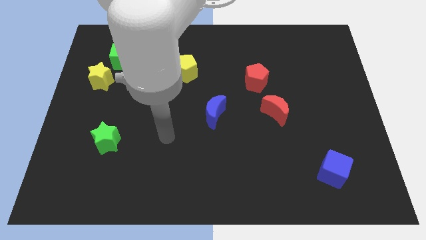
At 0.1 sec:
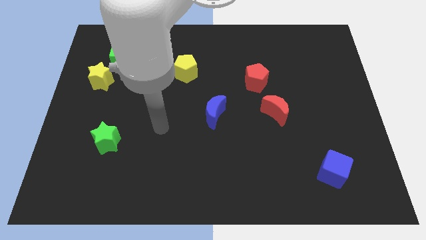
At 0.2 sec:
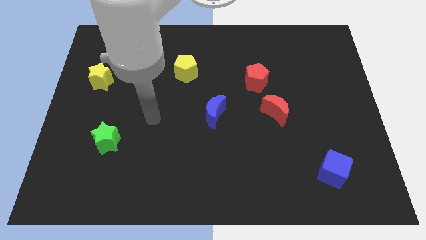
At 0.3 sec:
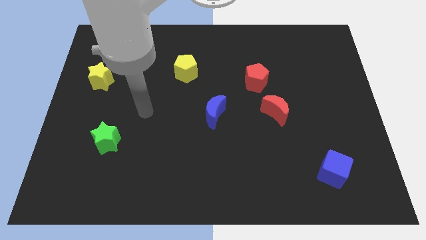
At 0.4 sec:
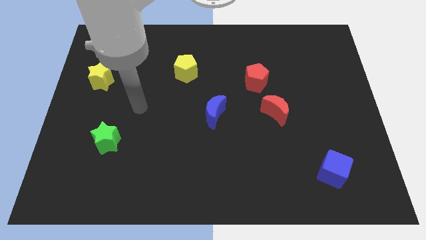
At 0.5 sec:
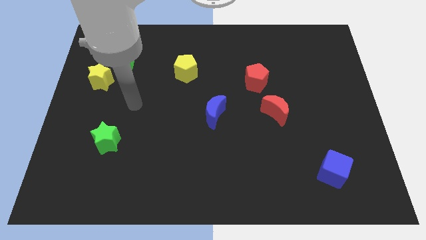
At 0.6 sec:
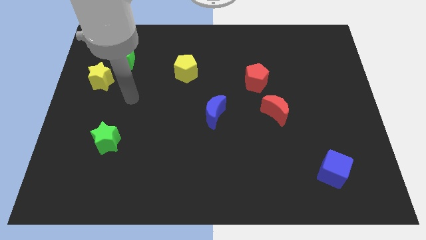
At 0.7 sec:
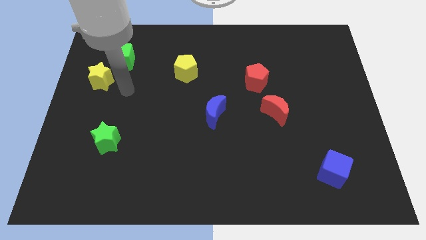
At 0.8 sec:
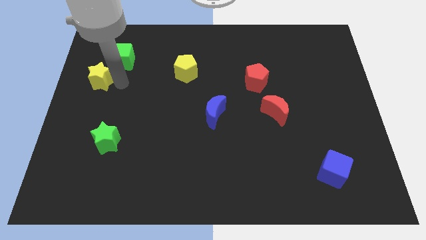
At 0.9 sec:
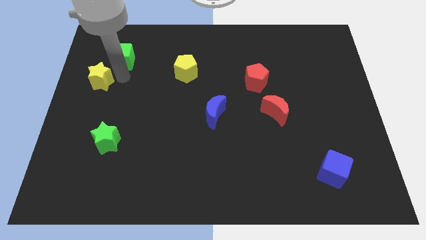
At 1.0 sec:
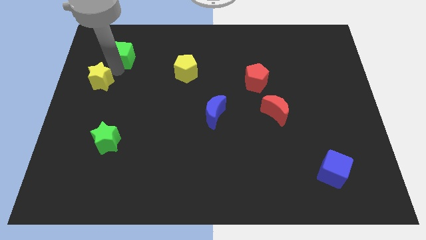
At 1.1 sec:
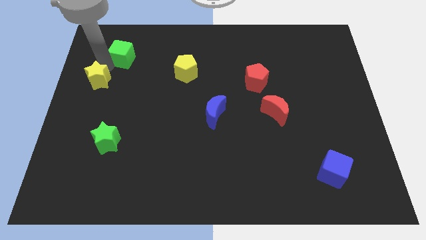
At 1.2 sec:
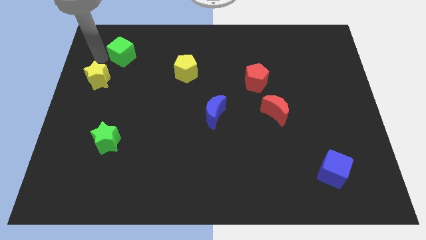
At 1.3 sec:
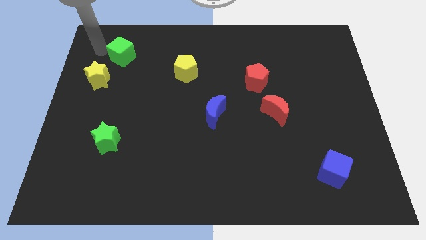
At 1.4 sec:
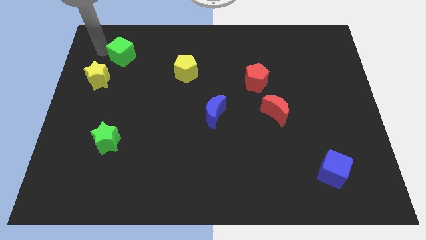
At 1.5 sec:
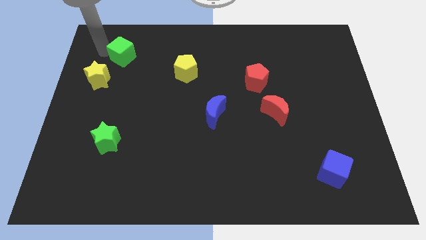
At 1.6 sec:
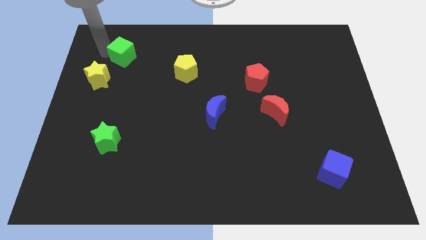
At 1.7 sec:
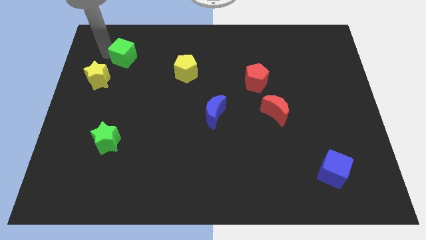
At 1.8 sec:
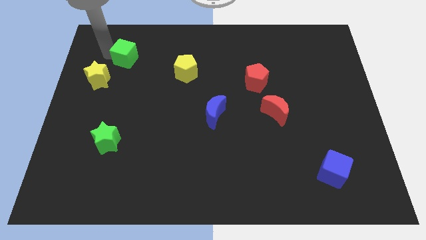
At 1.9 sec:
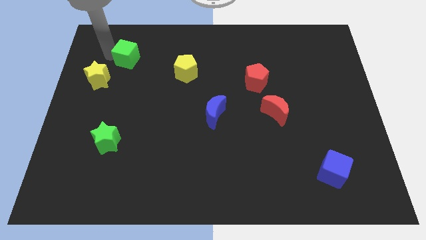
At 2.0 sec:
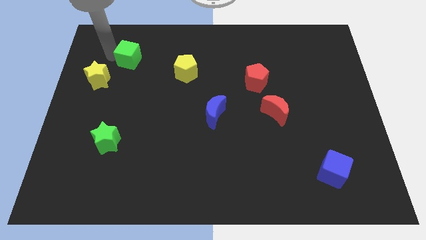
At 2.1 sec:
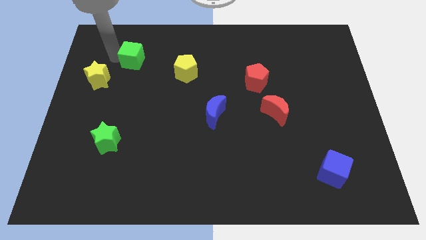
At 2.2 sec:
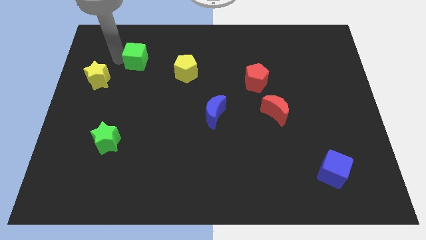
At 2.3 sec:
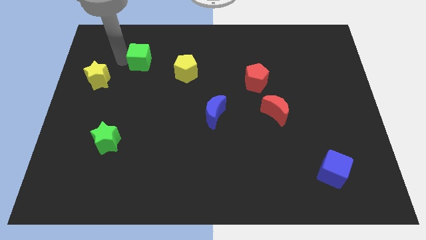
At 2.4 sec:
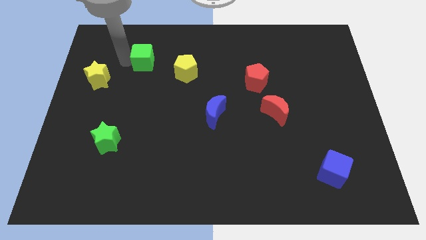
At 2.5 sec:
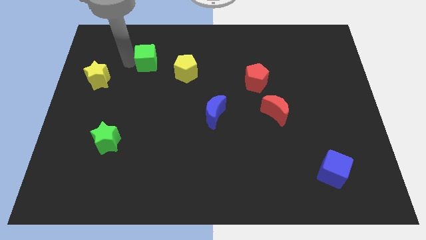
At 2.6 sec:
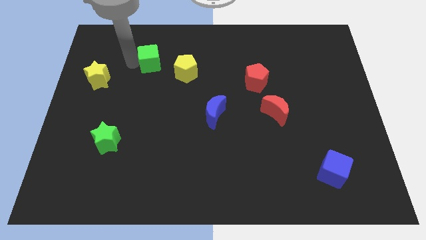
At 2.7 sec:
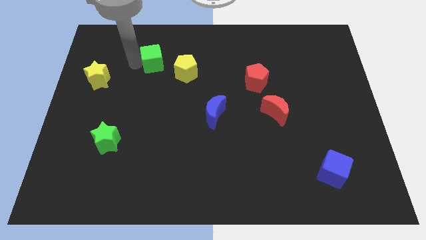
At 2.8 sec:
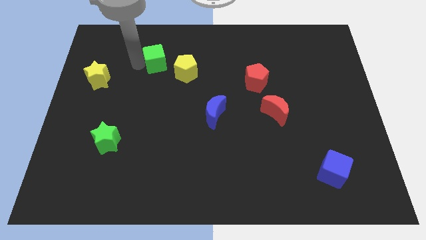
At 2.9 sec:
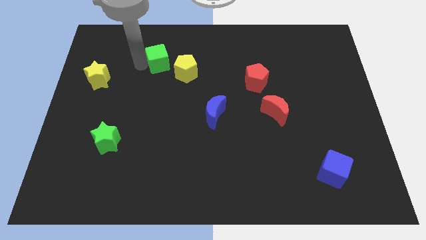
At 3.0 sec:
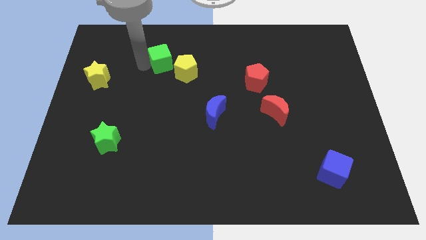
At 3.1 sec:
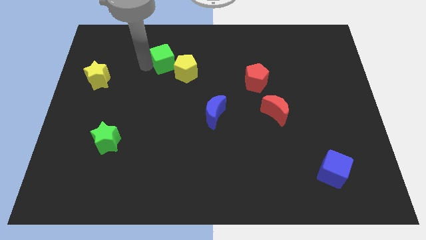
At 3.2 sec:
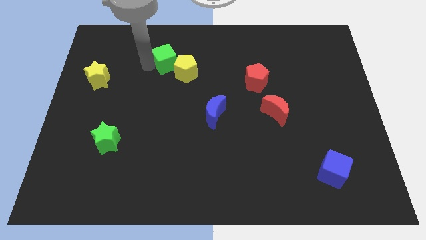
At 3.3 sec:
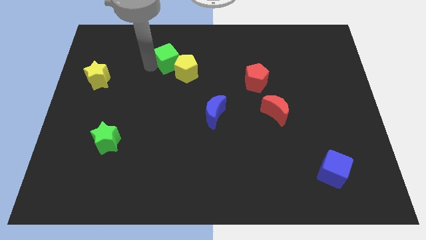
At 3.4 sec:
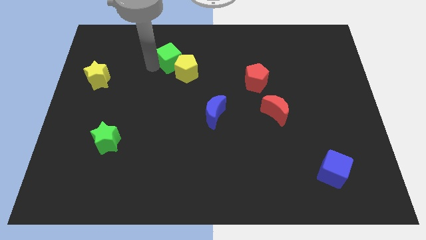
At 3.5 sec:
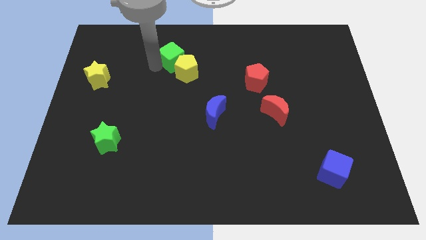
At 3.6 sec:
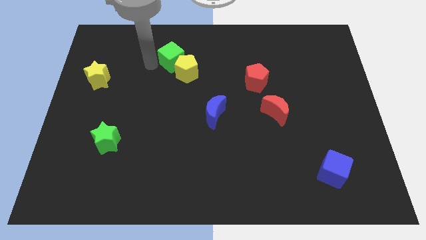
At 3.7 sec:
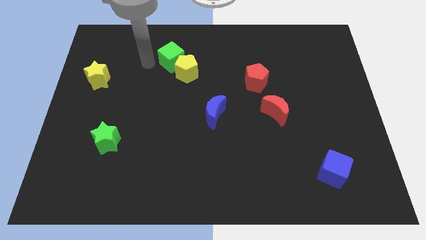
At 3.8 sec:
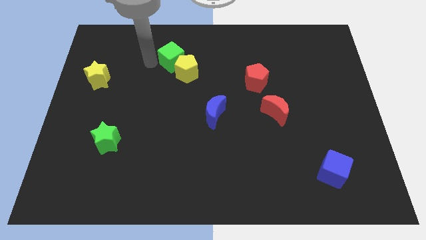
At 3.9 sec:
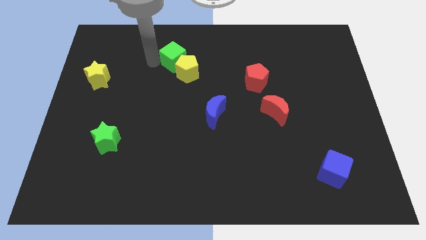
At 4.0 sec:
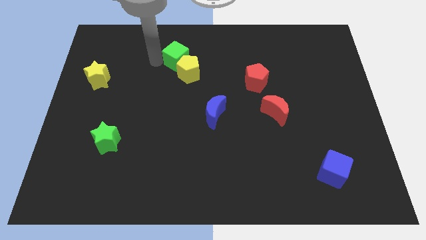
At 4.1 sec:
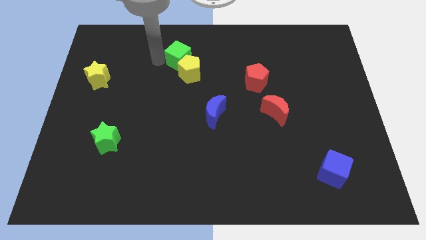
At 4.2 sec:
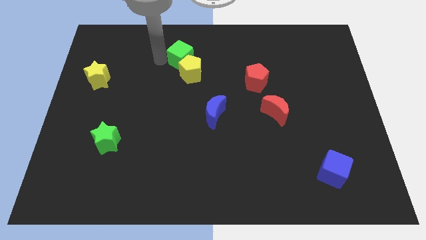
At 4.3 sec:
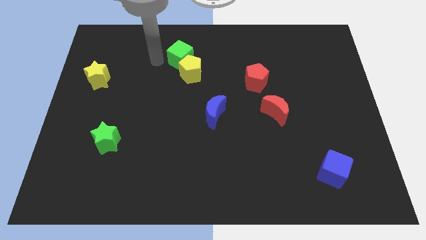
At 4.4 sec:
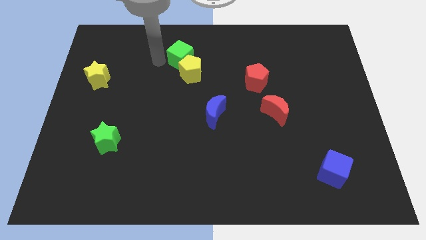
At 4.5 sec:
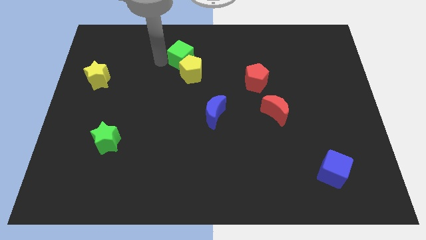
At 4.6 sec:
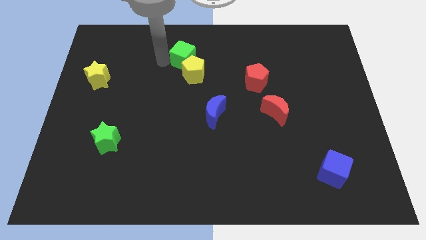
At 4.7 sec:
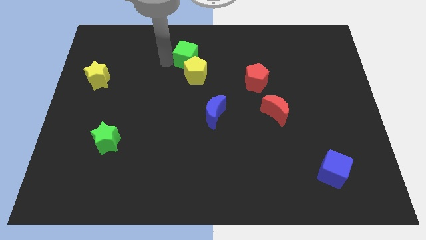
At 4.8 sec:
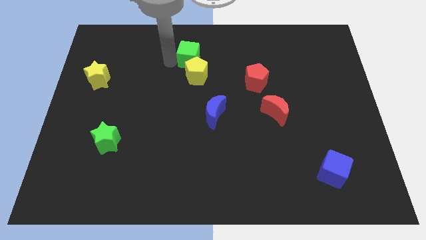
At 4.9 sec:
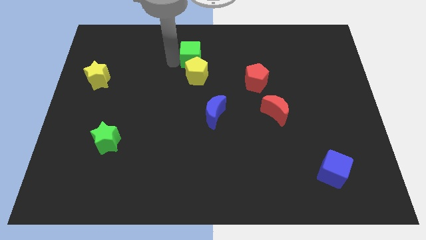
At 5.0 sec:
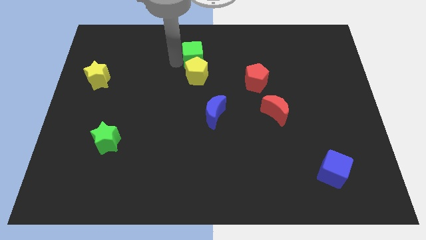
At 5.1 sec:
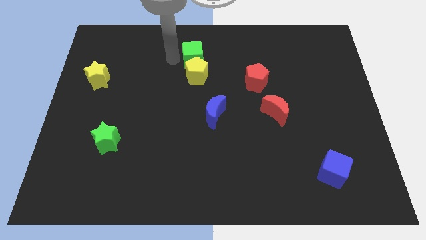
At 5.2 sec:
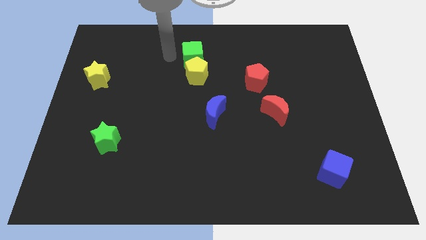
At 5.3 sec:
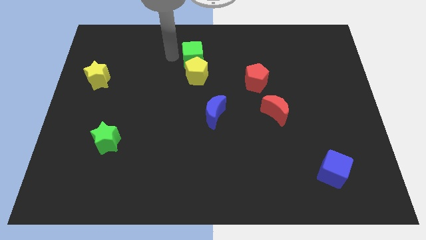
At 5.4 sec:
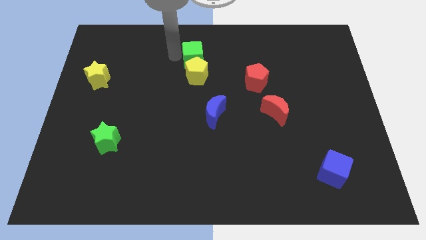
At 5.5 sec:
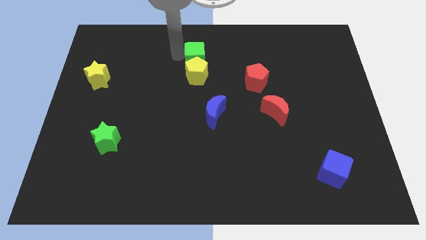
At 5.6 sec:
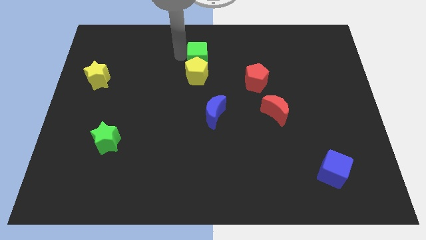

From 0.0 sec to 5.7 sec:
slide the green cube right

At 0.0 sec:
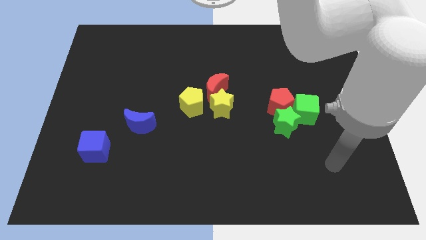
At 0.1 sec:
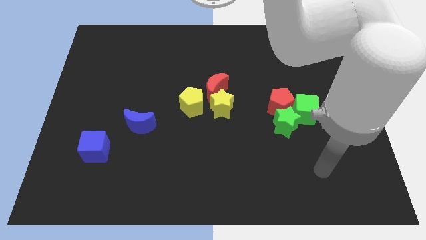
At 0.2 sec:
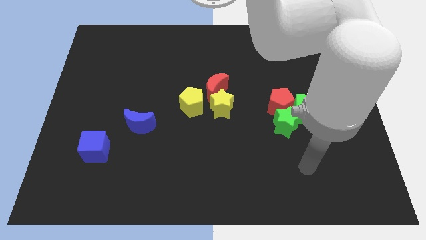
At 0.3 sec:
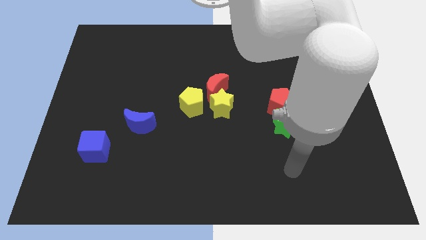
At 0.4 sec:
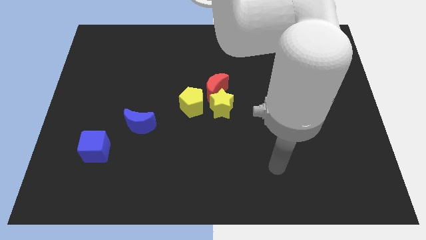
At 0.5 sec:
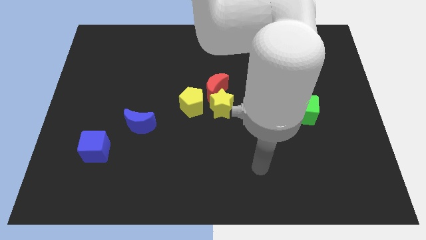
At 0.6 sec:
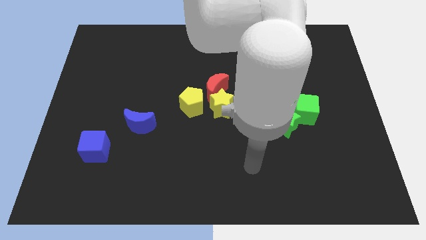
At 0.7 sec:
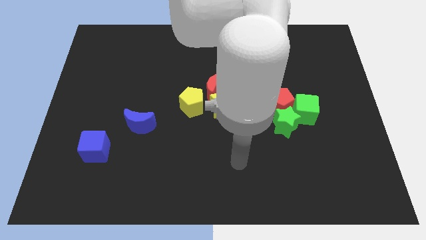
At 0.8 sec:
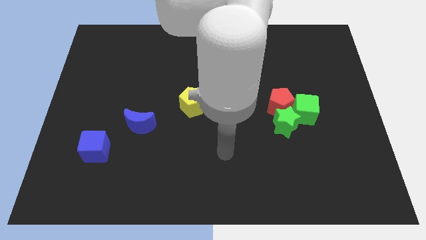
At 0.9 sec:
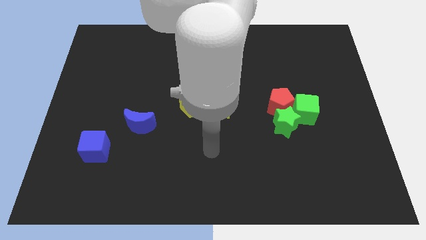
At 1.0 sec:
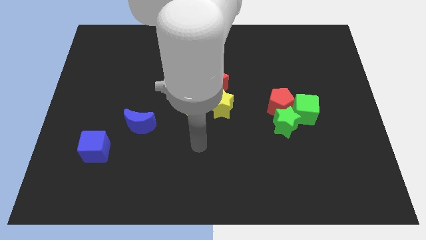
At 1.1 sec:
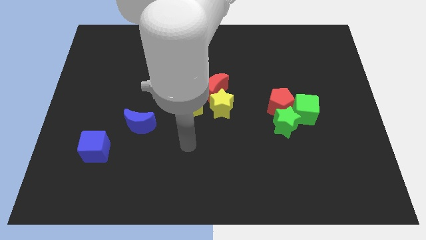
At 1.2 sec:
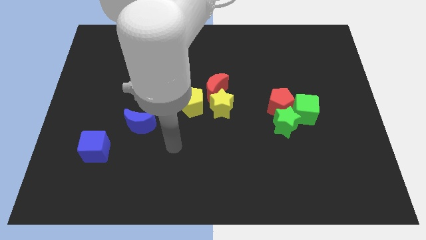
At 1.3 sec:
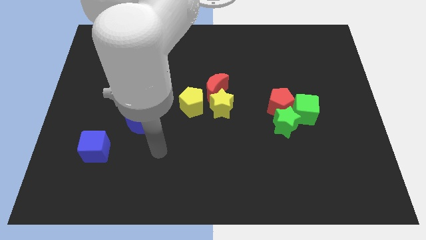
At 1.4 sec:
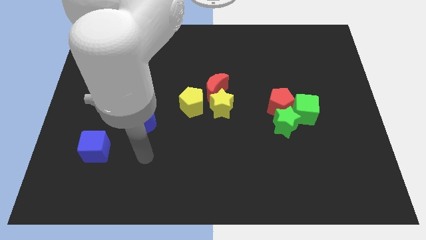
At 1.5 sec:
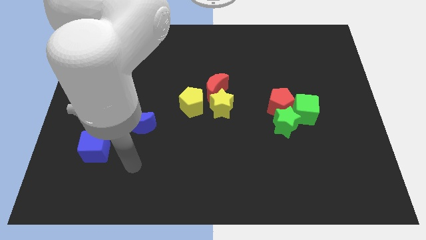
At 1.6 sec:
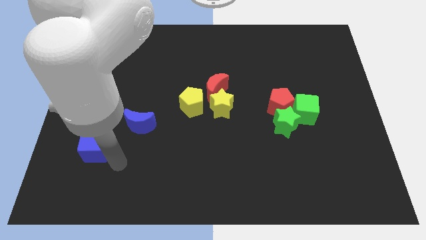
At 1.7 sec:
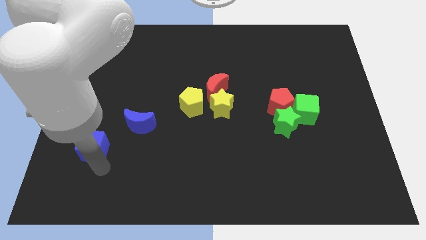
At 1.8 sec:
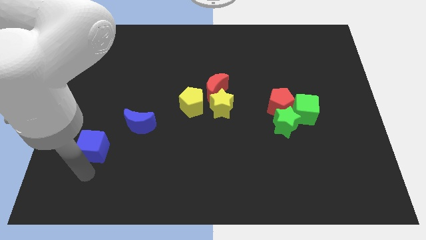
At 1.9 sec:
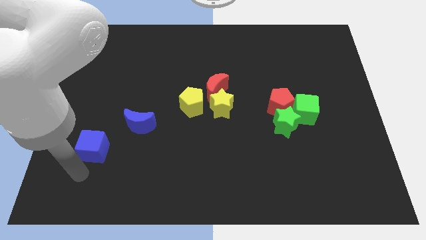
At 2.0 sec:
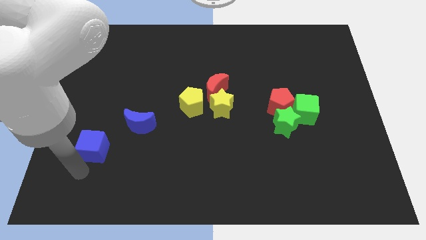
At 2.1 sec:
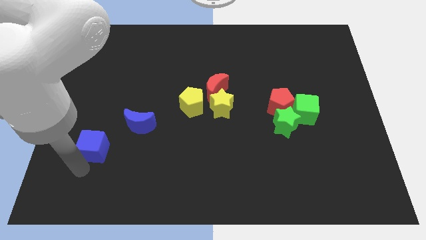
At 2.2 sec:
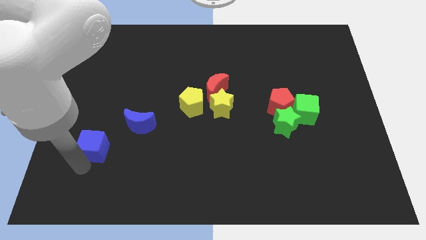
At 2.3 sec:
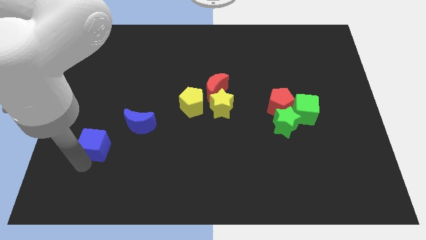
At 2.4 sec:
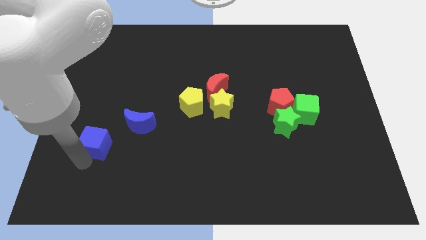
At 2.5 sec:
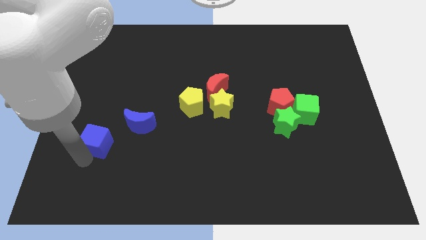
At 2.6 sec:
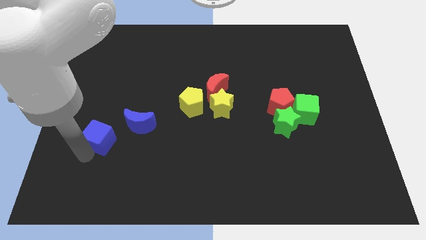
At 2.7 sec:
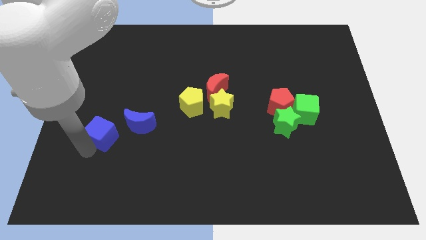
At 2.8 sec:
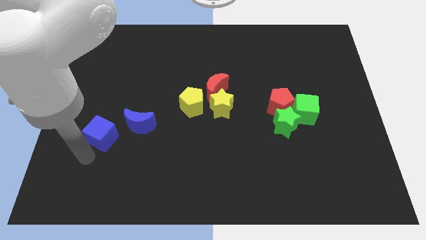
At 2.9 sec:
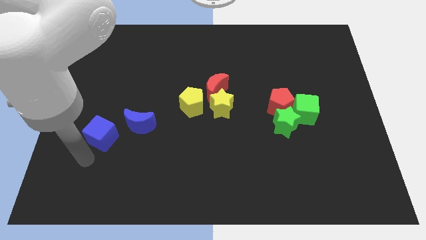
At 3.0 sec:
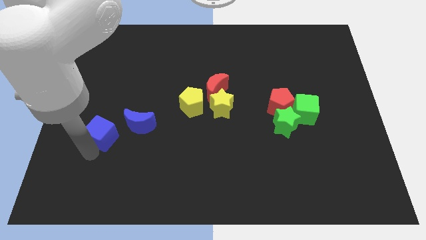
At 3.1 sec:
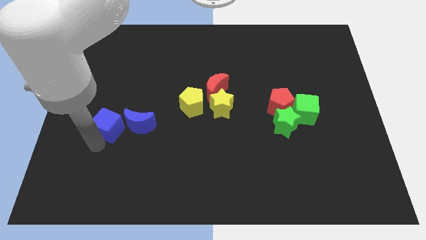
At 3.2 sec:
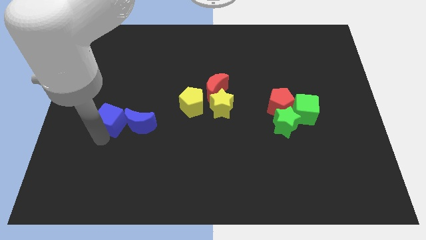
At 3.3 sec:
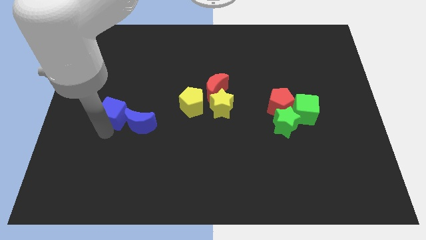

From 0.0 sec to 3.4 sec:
slightly push the blue cube upwards and then right
